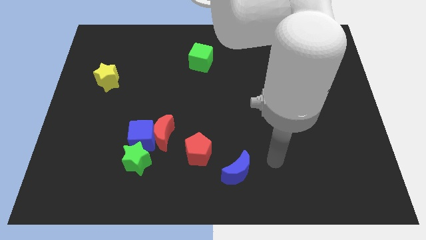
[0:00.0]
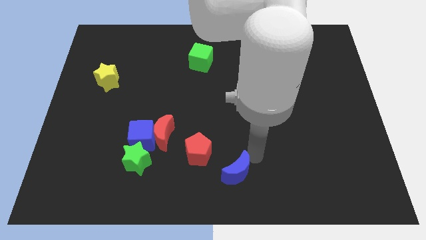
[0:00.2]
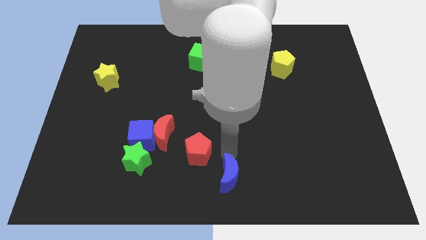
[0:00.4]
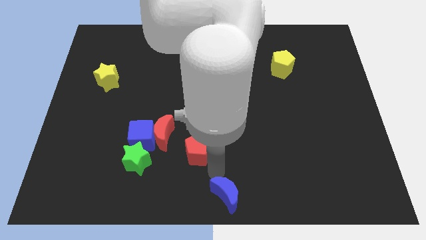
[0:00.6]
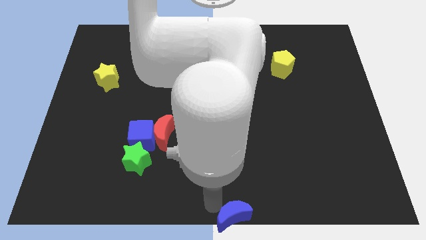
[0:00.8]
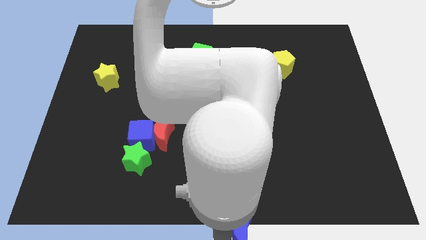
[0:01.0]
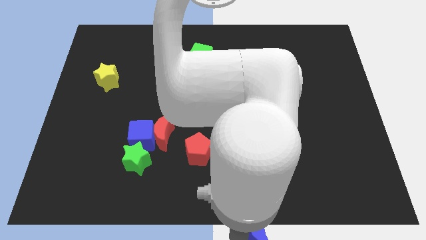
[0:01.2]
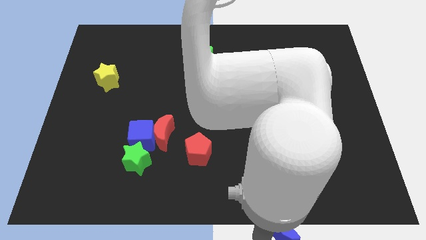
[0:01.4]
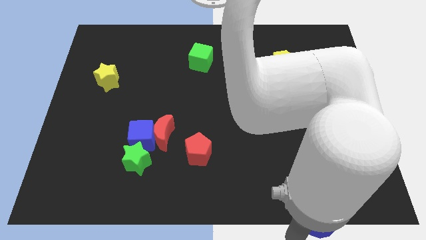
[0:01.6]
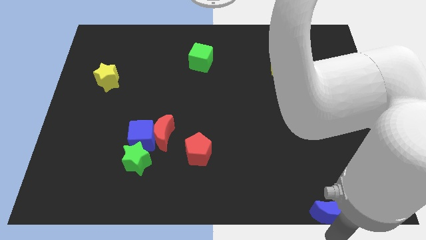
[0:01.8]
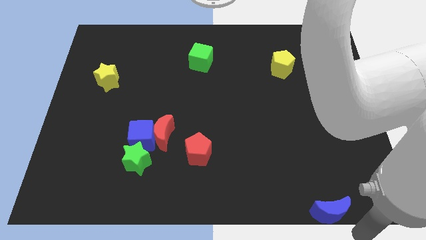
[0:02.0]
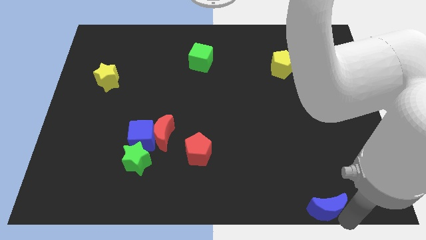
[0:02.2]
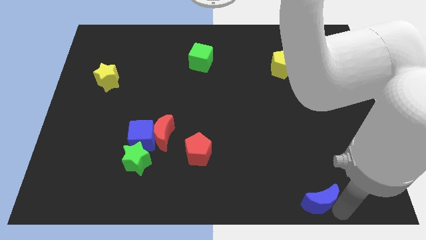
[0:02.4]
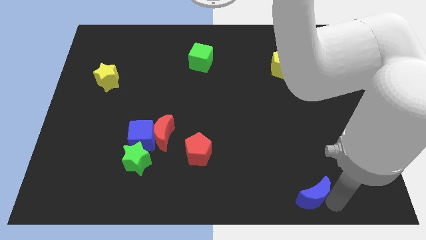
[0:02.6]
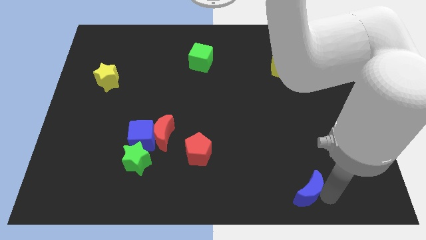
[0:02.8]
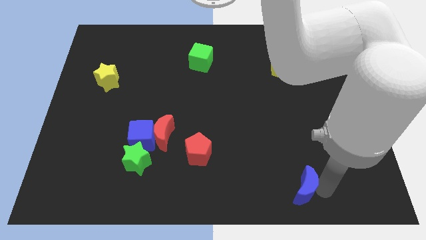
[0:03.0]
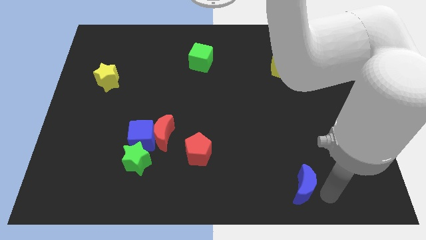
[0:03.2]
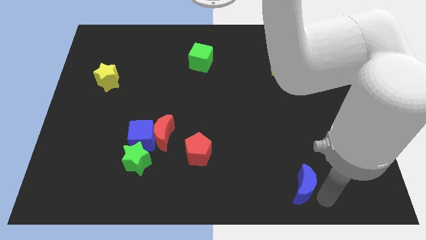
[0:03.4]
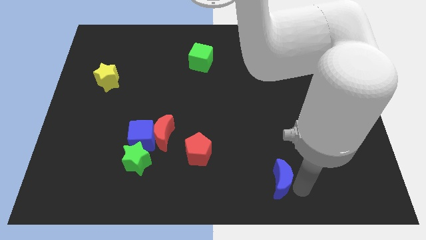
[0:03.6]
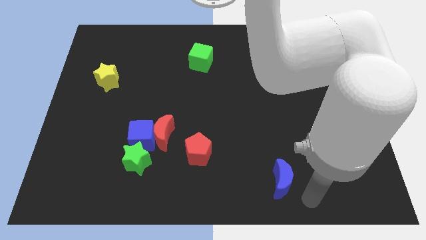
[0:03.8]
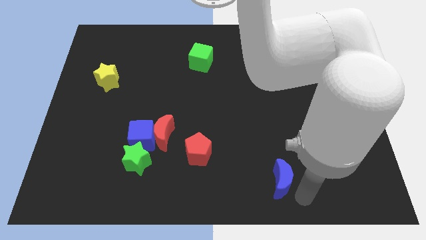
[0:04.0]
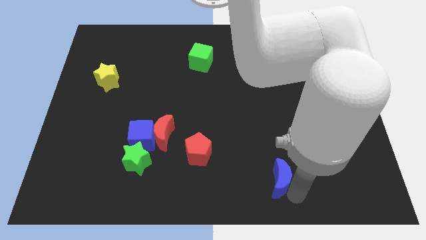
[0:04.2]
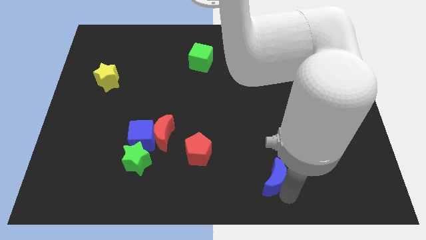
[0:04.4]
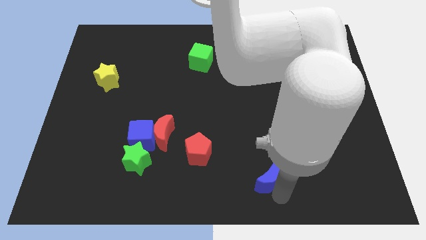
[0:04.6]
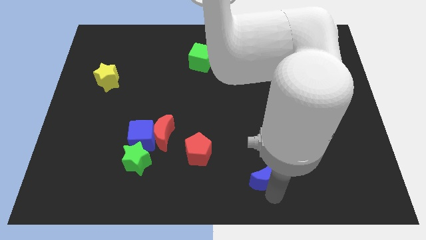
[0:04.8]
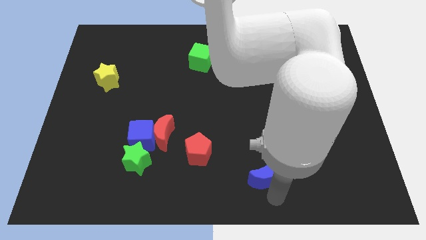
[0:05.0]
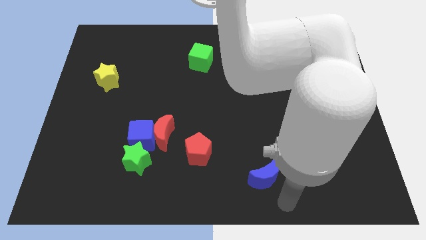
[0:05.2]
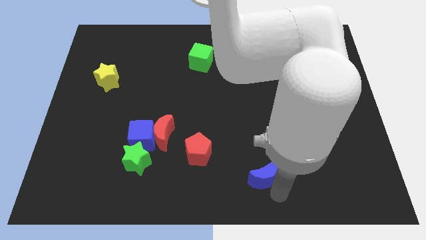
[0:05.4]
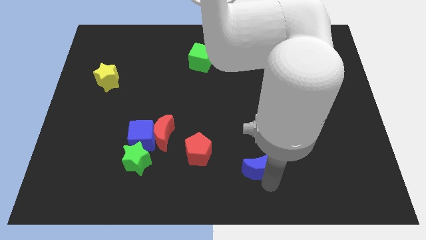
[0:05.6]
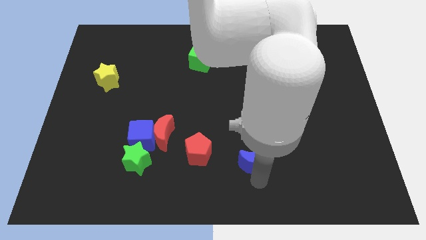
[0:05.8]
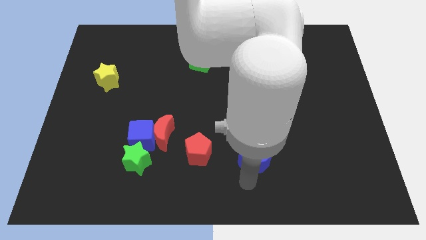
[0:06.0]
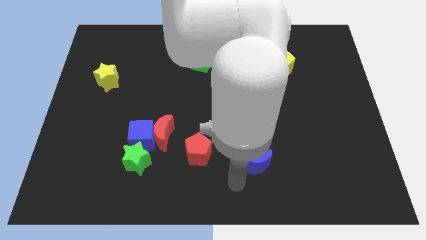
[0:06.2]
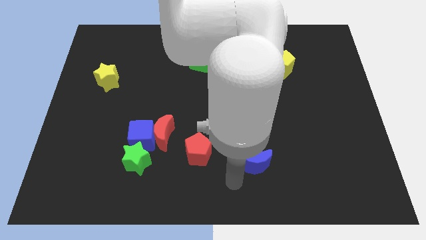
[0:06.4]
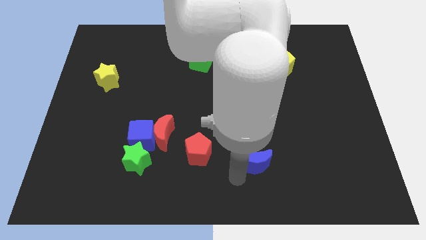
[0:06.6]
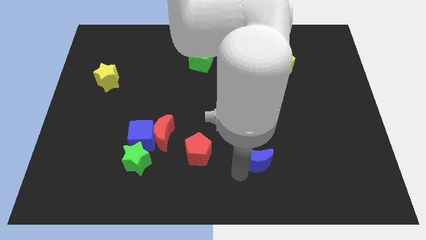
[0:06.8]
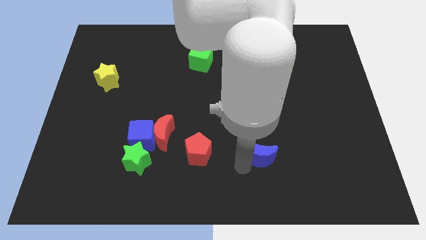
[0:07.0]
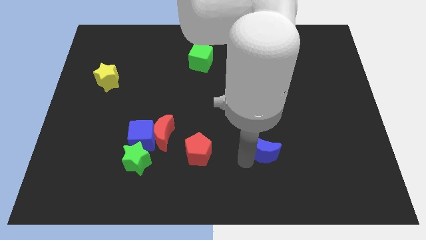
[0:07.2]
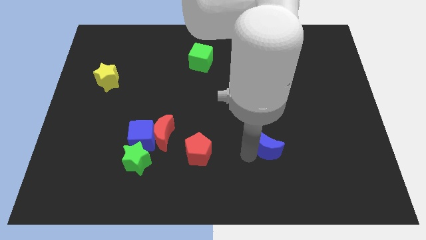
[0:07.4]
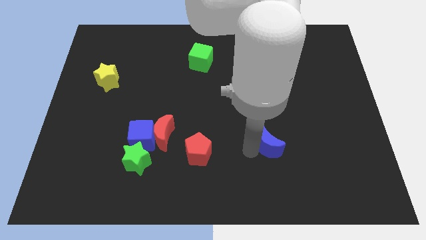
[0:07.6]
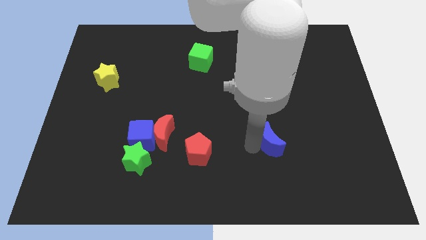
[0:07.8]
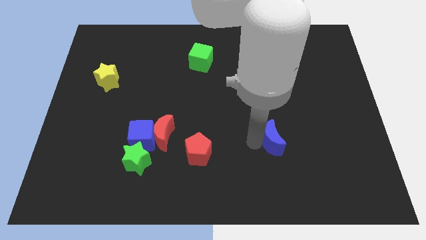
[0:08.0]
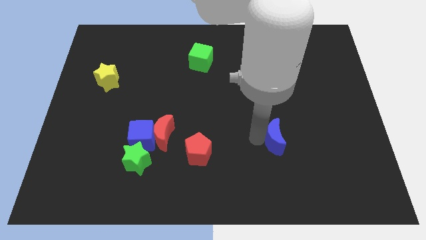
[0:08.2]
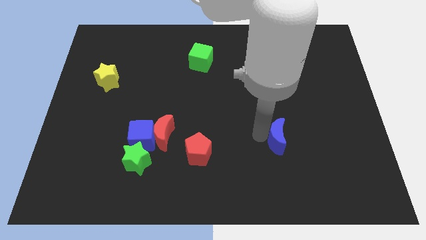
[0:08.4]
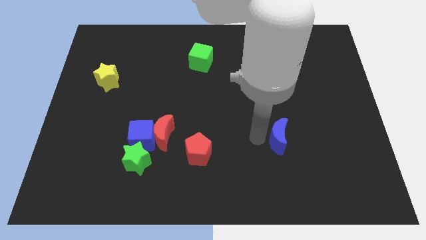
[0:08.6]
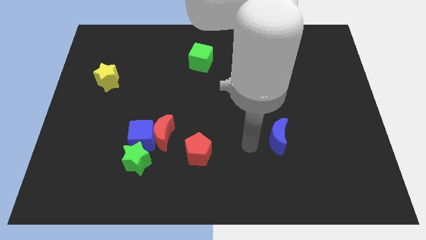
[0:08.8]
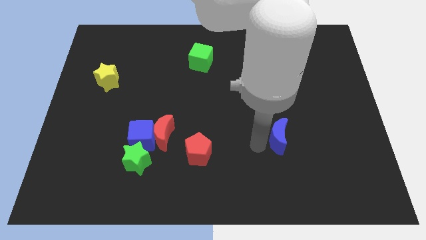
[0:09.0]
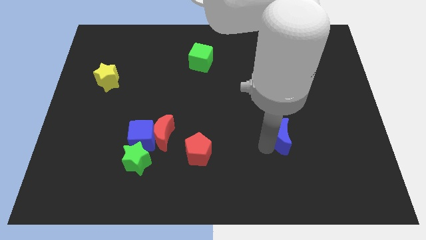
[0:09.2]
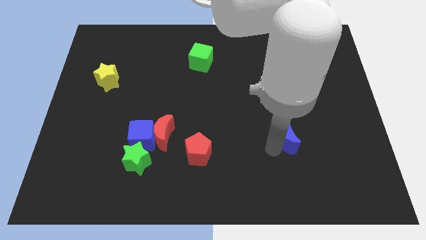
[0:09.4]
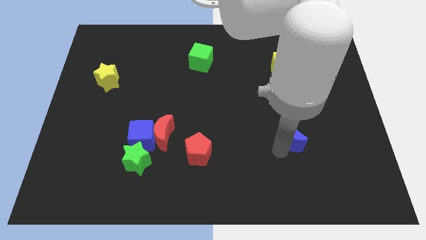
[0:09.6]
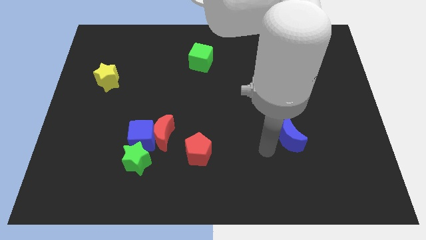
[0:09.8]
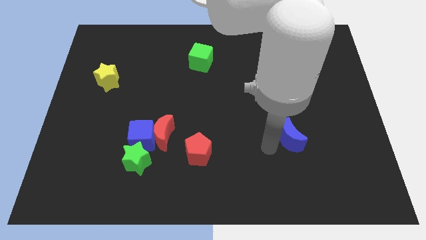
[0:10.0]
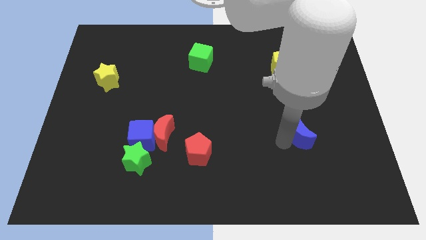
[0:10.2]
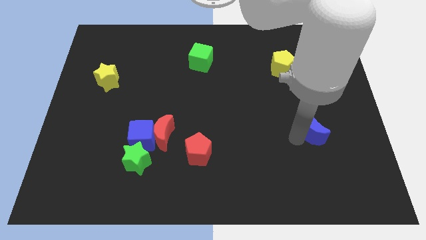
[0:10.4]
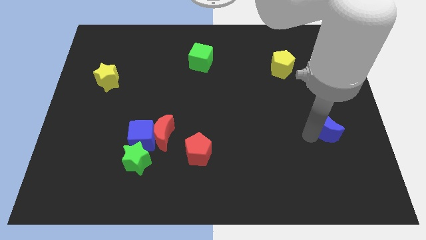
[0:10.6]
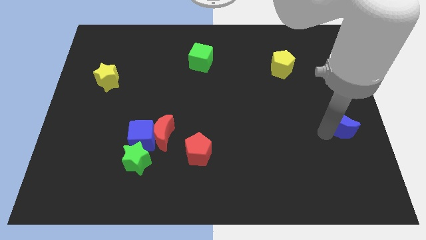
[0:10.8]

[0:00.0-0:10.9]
move the blue moon to the center right
